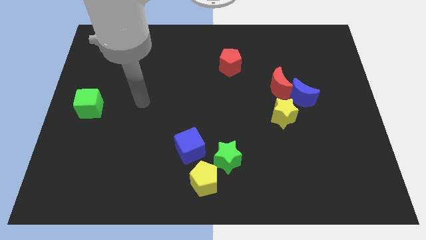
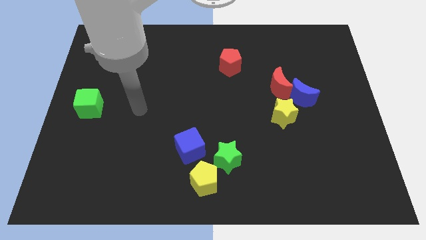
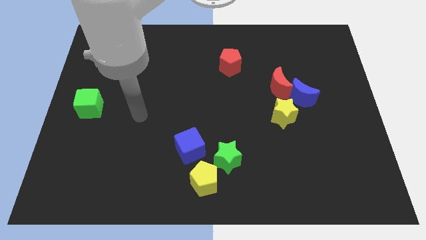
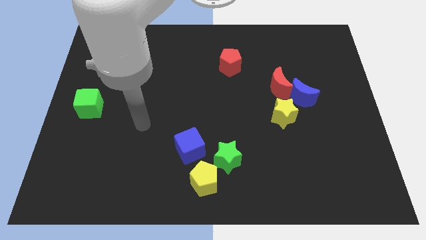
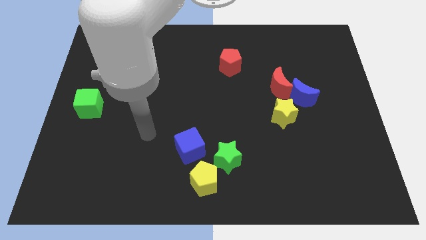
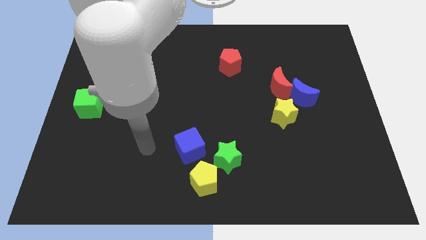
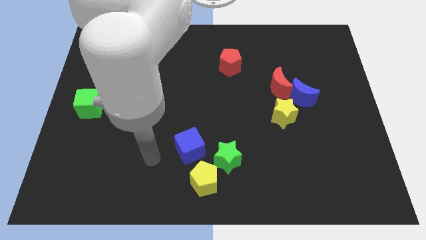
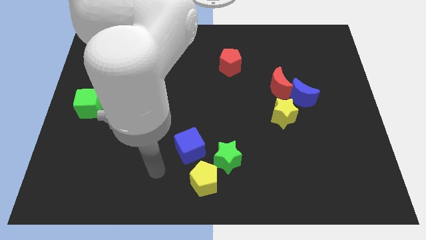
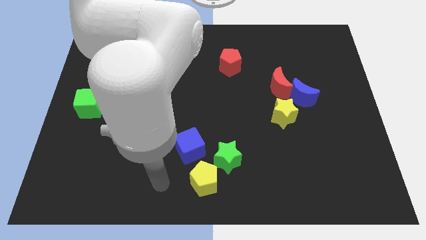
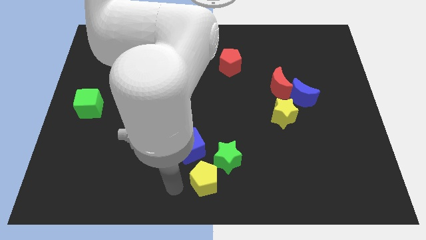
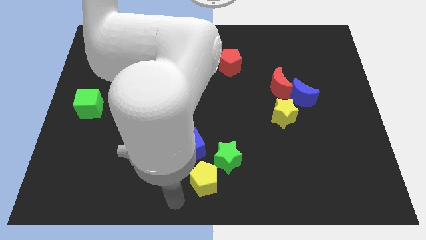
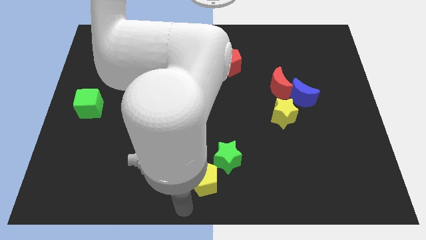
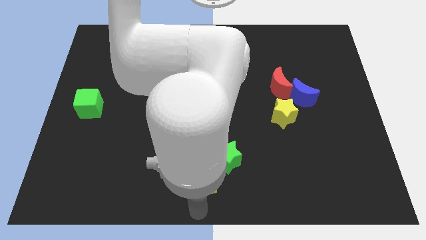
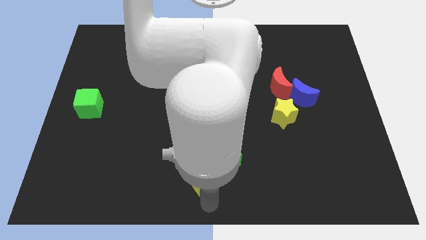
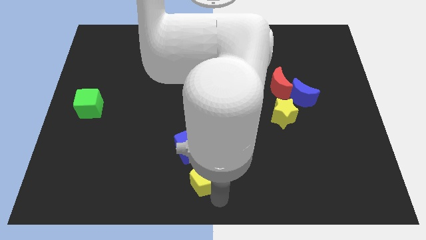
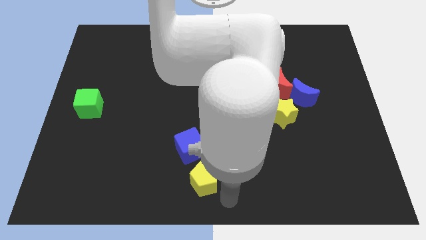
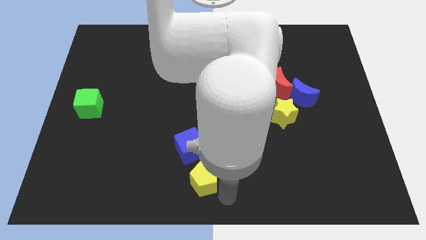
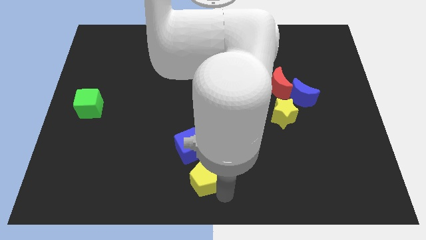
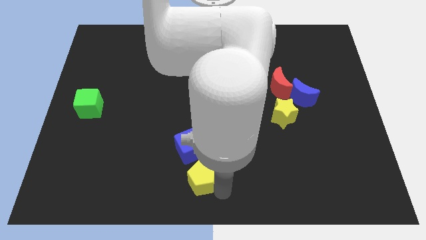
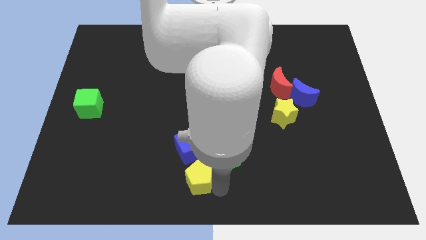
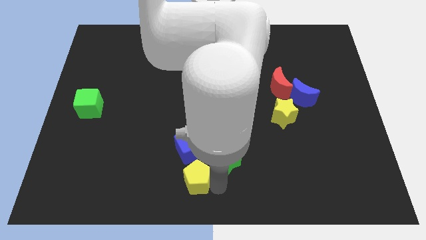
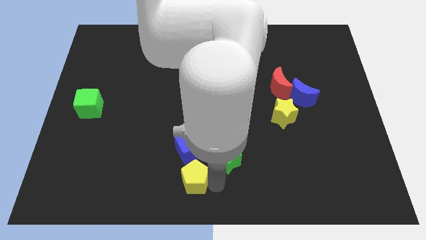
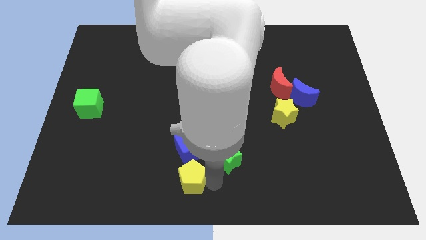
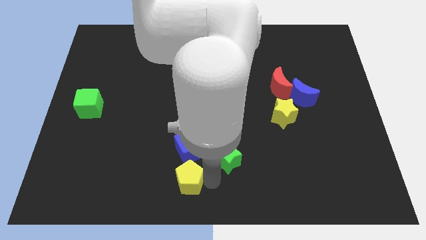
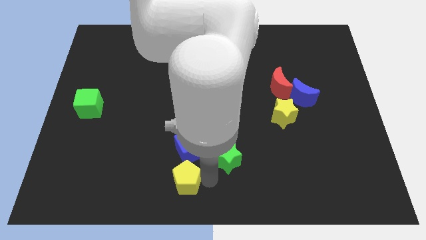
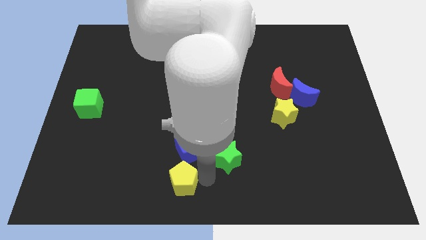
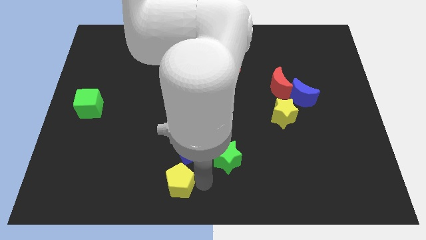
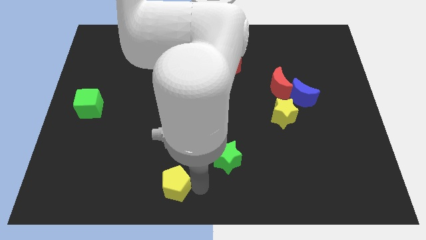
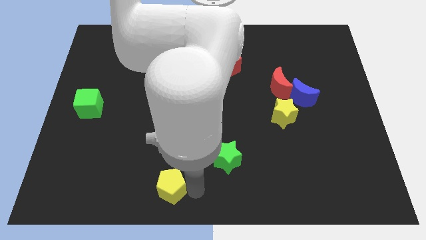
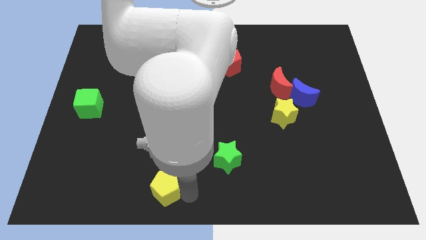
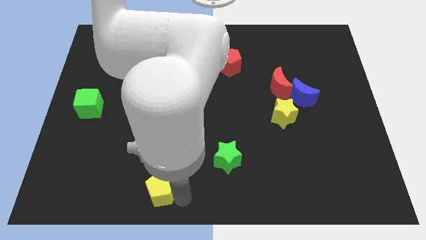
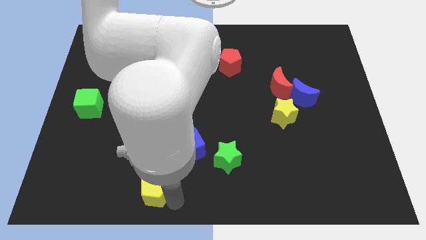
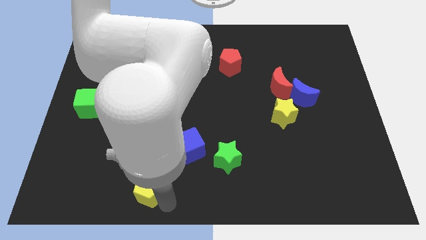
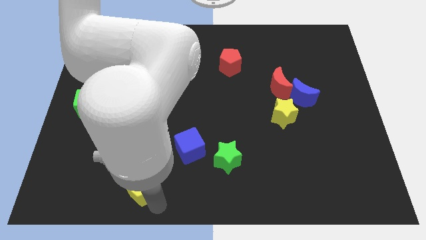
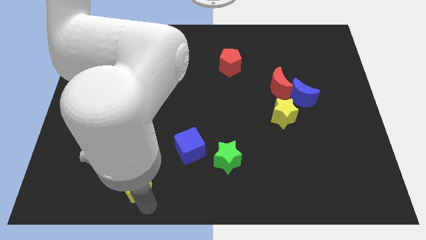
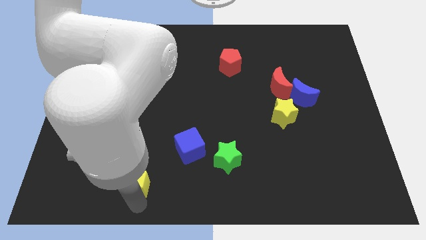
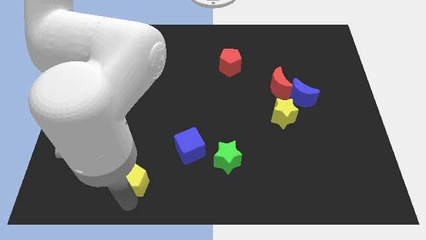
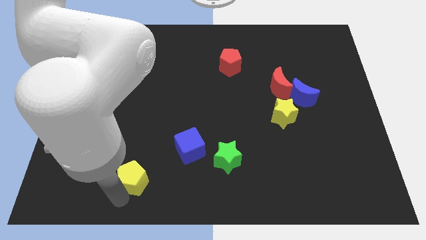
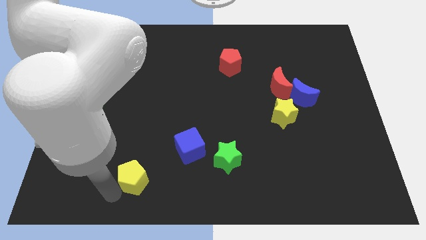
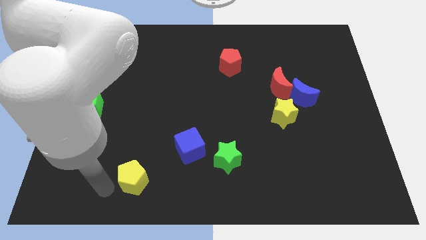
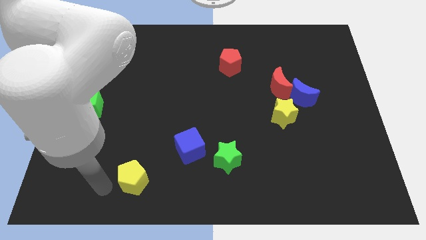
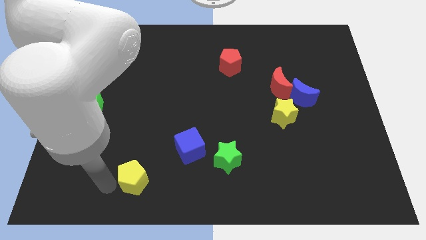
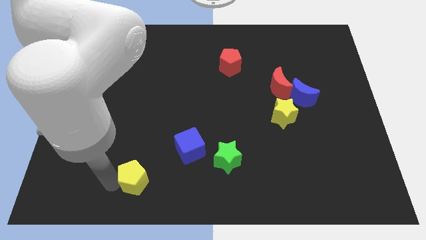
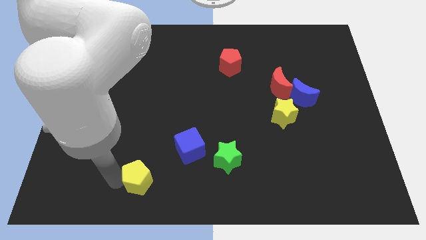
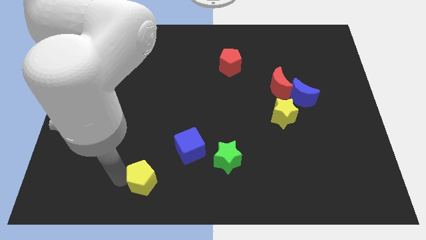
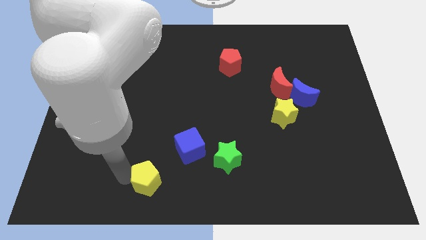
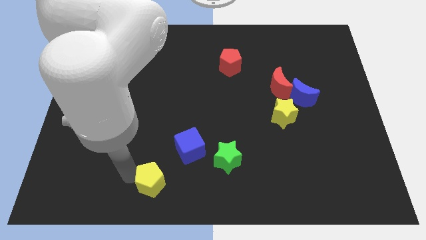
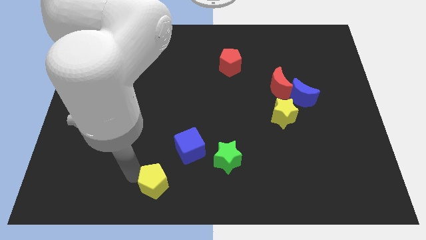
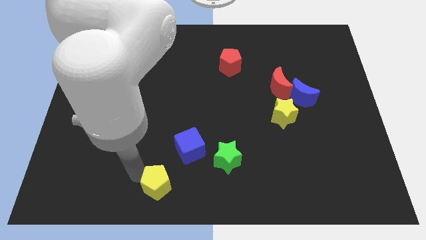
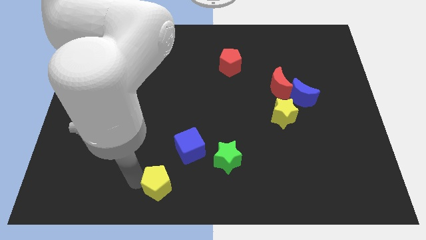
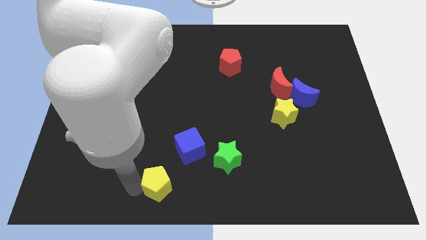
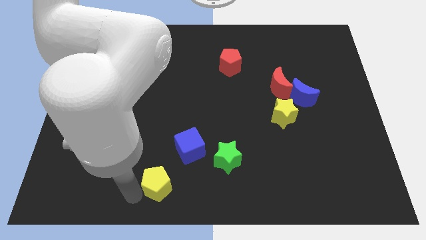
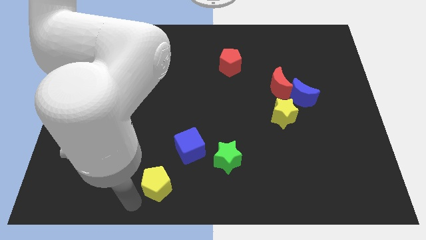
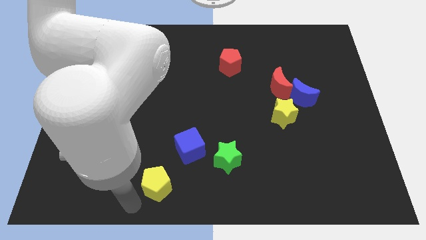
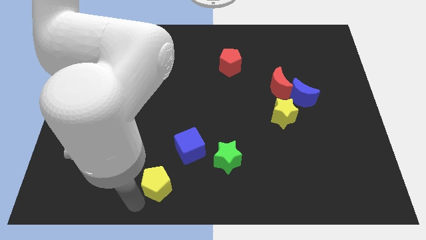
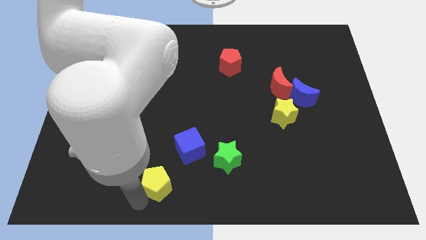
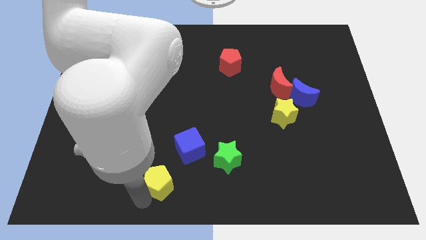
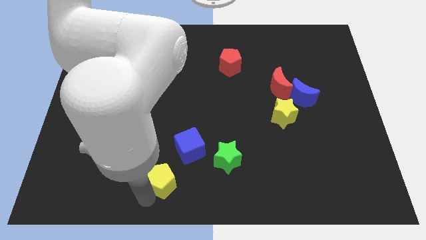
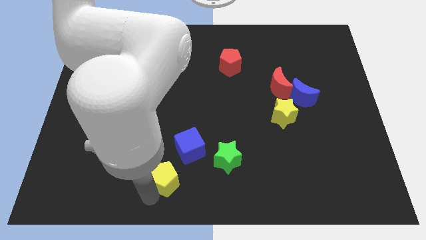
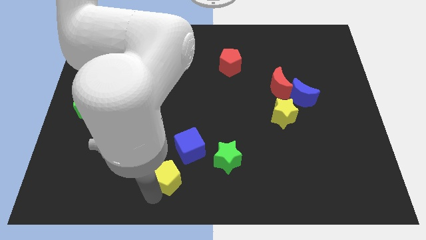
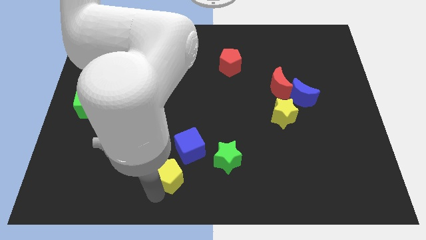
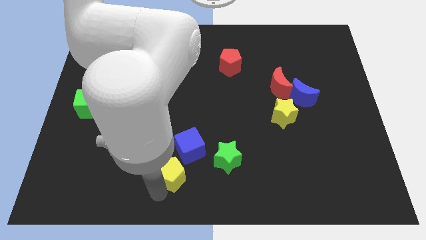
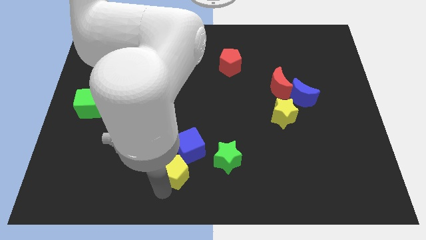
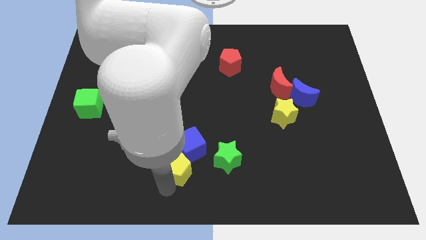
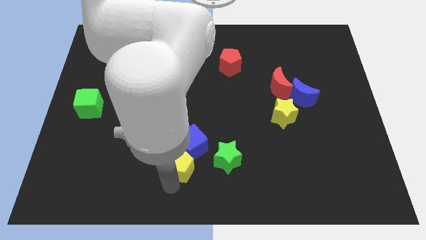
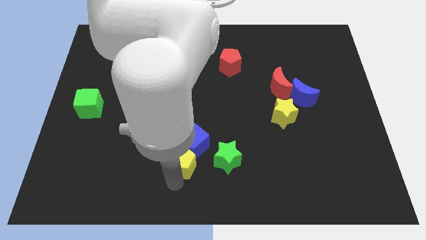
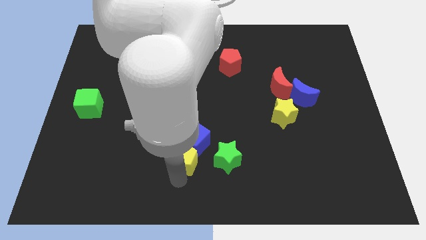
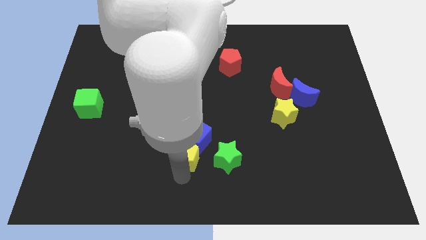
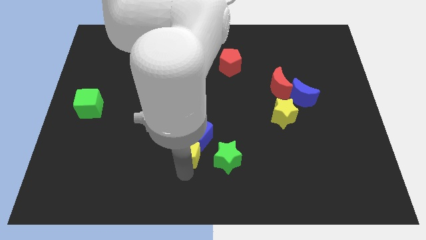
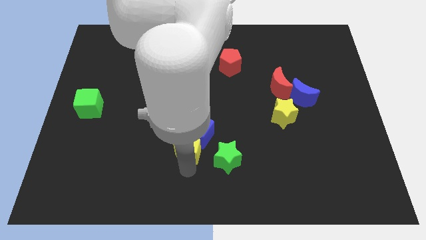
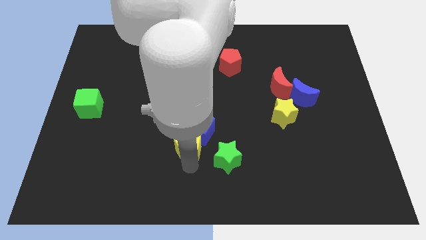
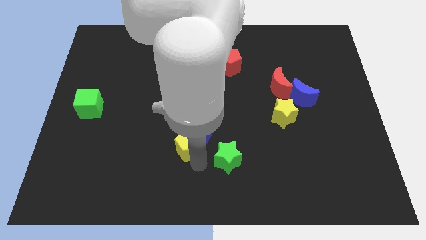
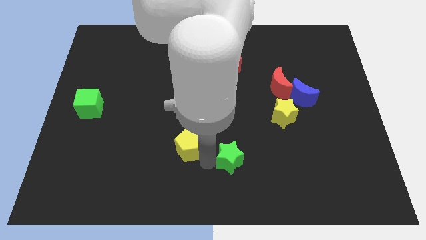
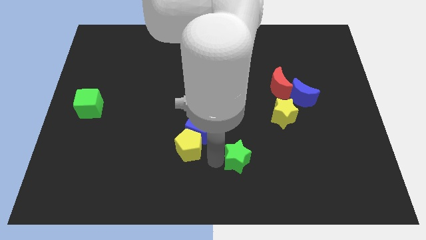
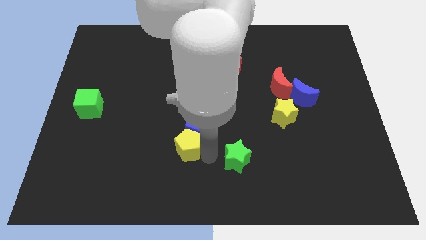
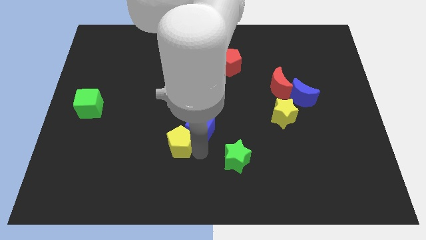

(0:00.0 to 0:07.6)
put the yellow pentagon to the left side of the blue cube
